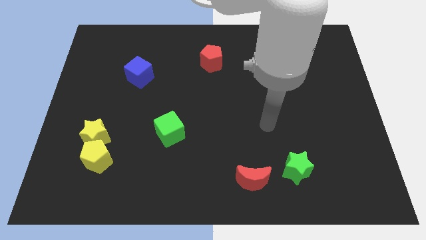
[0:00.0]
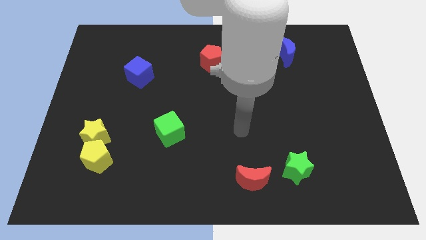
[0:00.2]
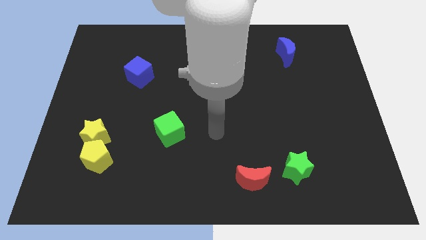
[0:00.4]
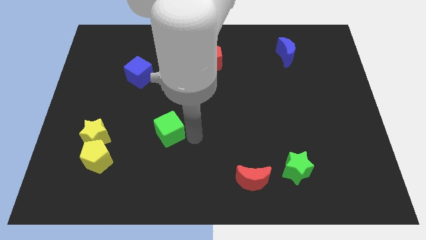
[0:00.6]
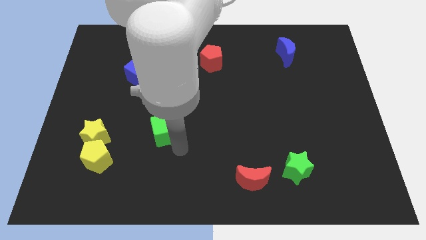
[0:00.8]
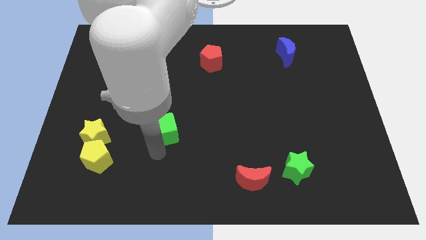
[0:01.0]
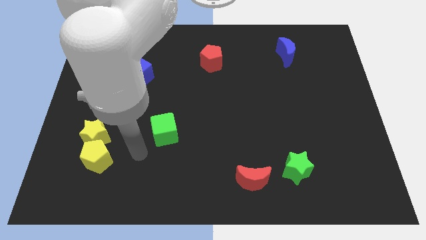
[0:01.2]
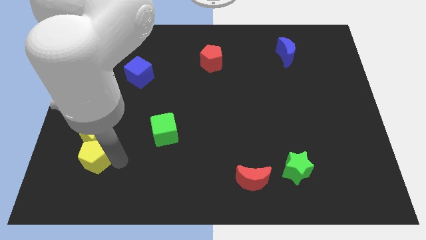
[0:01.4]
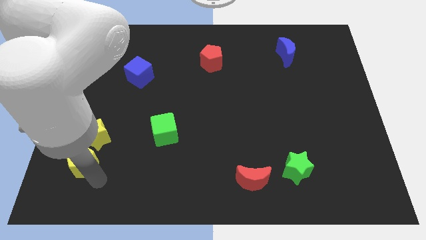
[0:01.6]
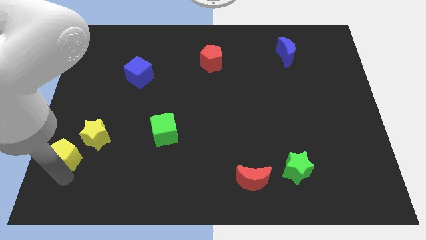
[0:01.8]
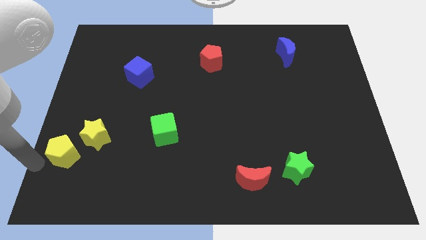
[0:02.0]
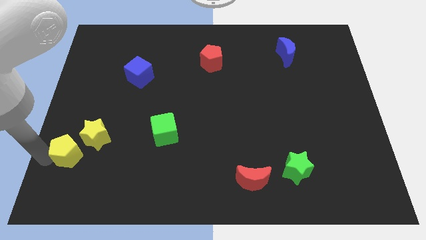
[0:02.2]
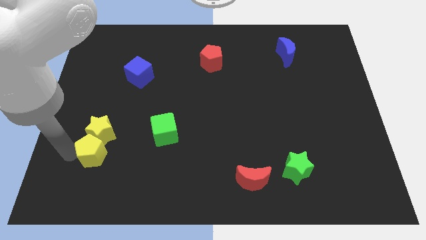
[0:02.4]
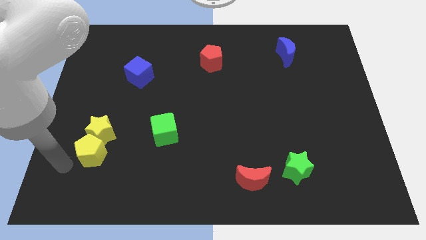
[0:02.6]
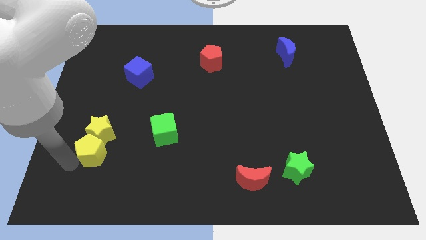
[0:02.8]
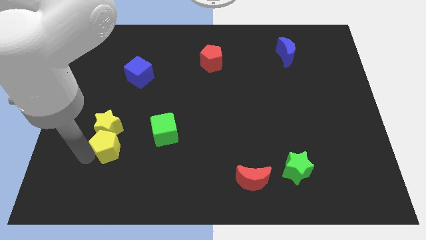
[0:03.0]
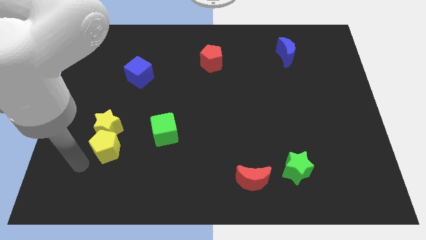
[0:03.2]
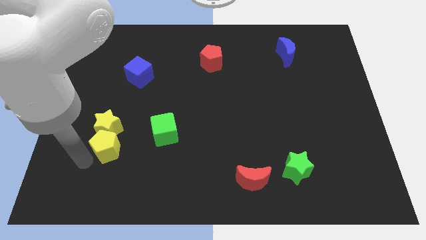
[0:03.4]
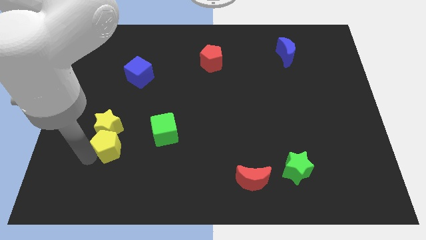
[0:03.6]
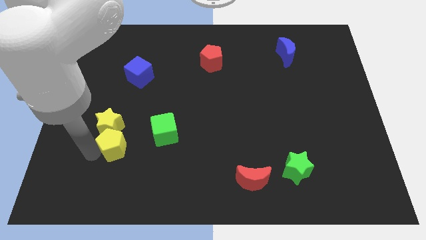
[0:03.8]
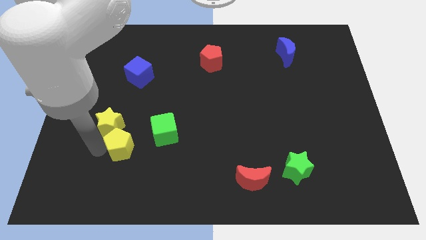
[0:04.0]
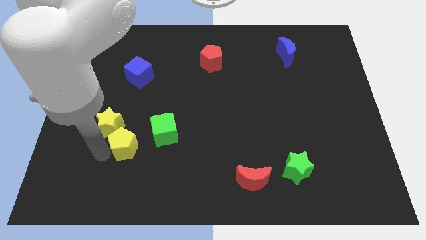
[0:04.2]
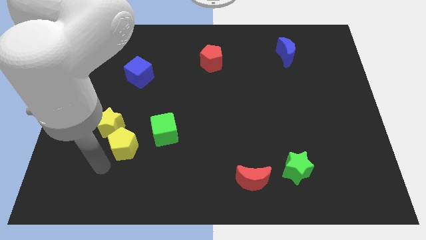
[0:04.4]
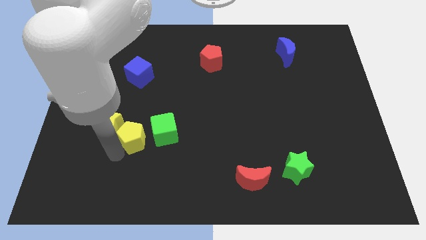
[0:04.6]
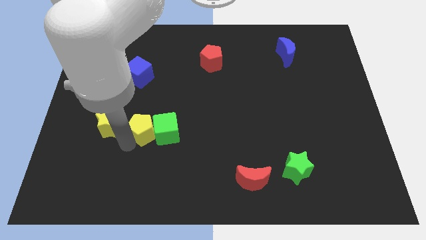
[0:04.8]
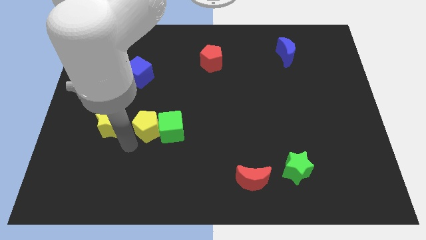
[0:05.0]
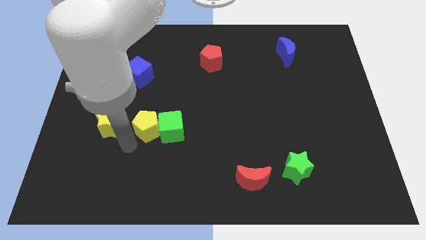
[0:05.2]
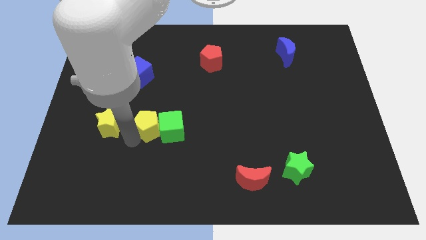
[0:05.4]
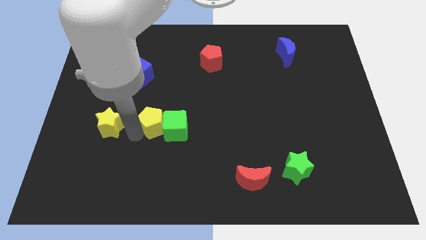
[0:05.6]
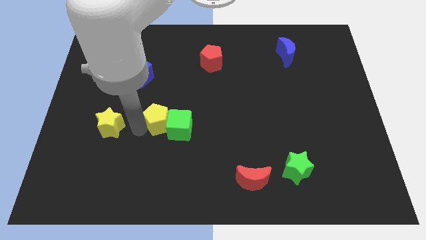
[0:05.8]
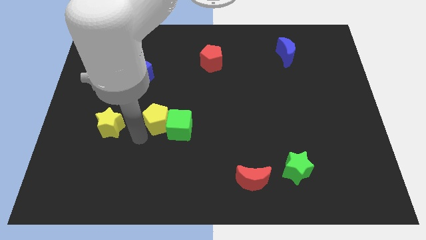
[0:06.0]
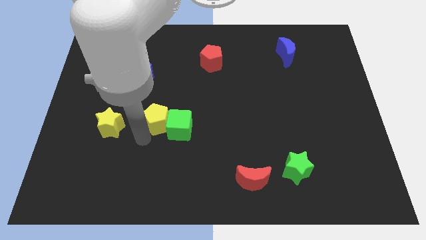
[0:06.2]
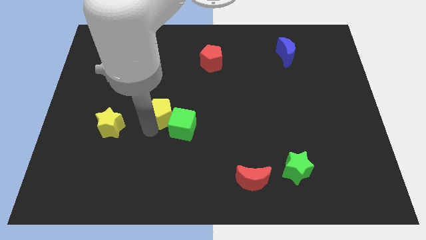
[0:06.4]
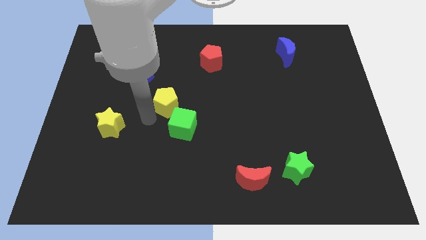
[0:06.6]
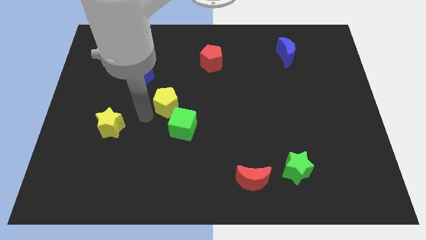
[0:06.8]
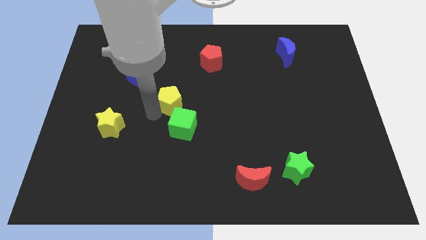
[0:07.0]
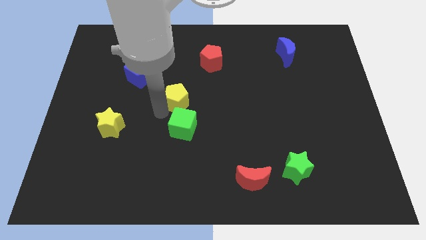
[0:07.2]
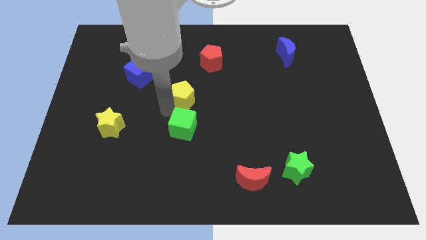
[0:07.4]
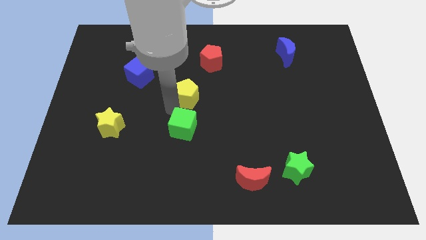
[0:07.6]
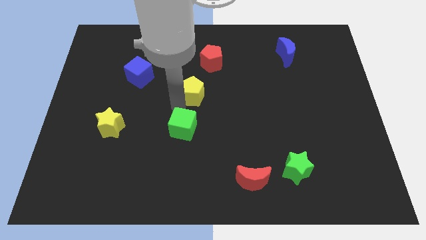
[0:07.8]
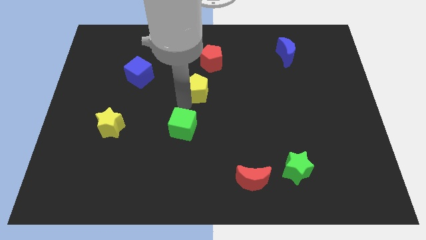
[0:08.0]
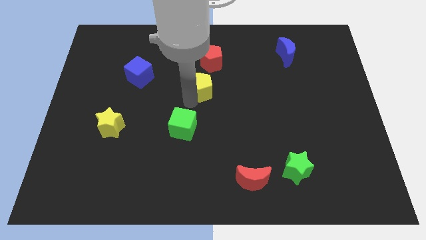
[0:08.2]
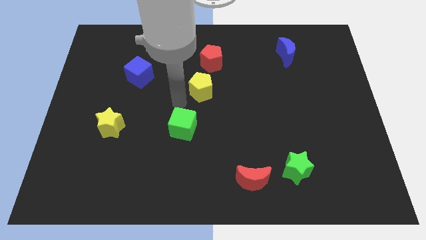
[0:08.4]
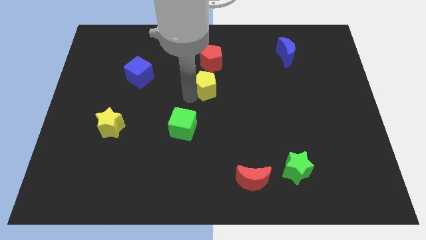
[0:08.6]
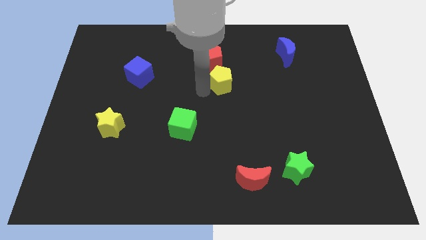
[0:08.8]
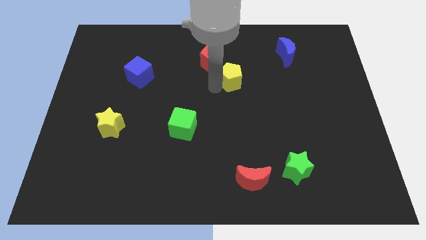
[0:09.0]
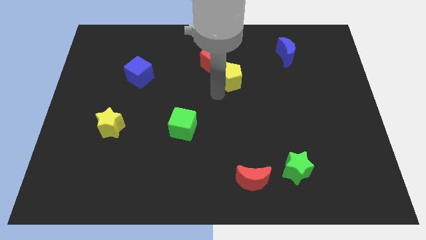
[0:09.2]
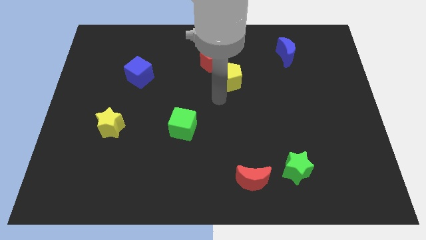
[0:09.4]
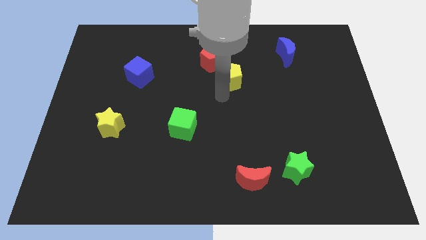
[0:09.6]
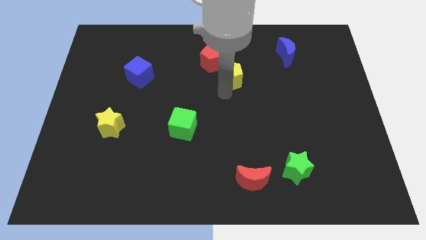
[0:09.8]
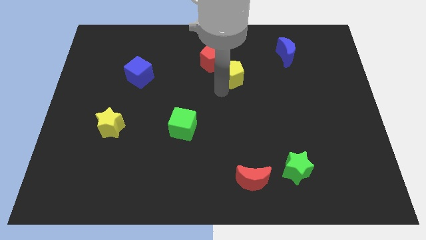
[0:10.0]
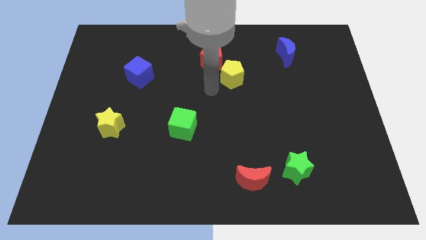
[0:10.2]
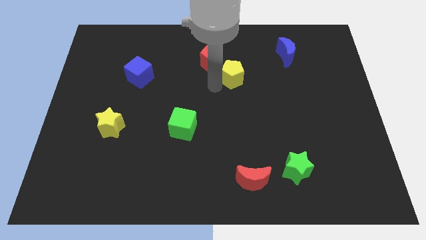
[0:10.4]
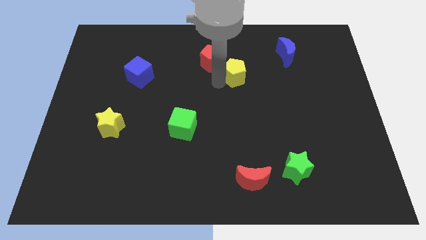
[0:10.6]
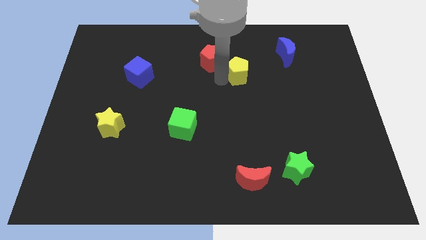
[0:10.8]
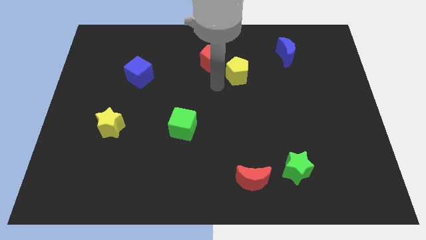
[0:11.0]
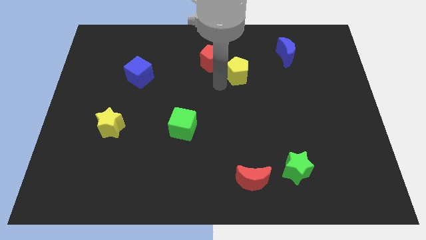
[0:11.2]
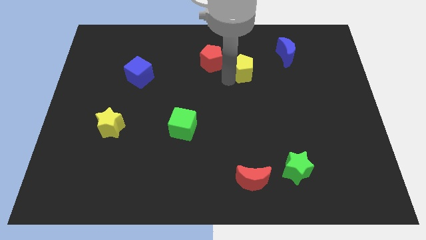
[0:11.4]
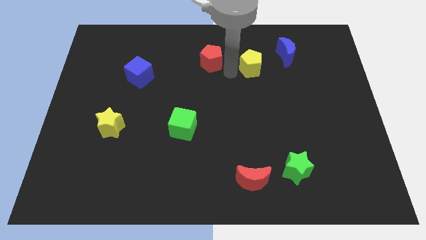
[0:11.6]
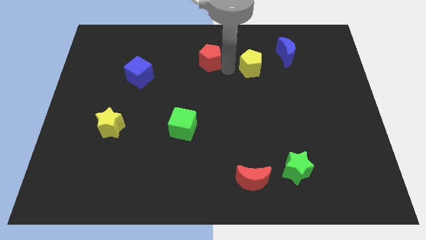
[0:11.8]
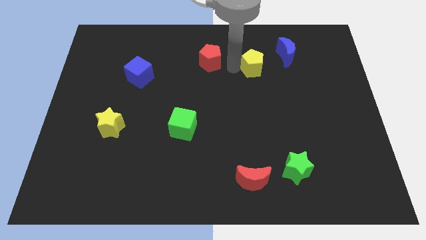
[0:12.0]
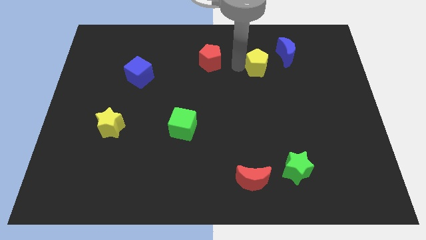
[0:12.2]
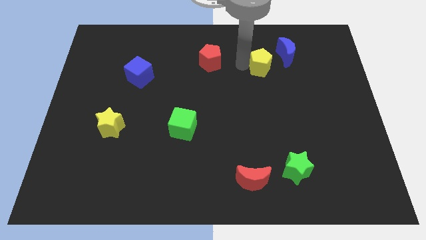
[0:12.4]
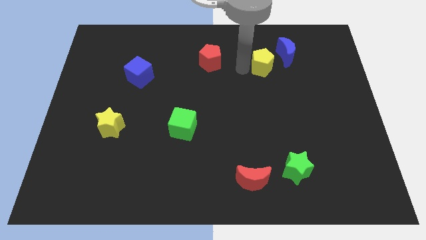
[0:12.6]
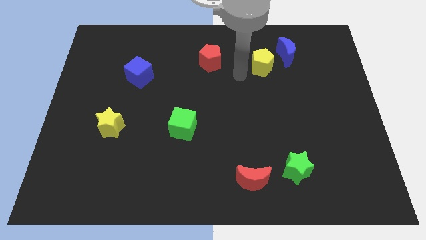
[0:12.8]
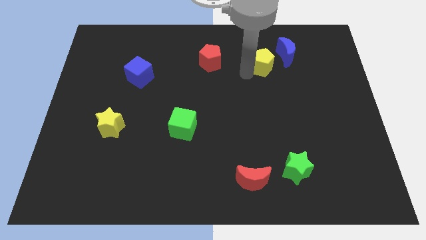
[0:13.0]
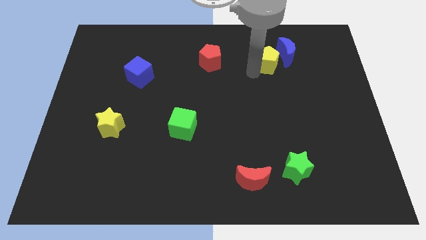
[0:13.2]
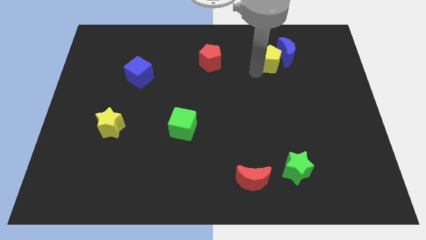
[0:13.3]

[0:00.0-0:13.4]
slide the yellow pentagon next to the blue moon

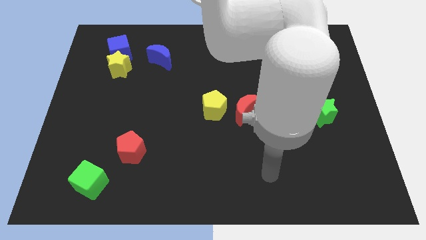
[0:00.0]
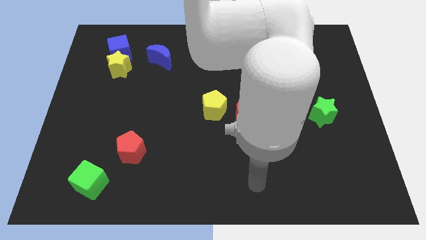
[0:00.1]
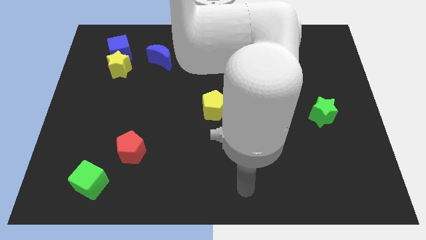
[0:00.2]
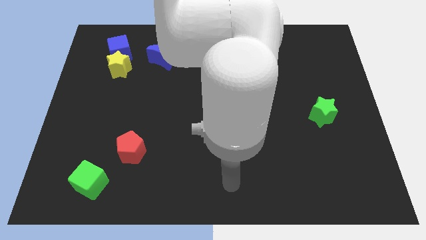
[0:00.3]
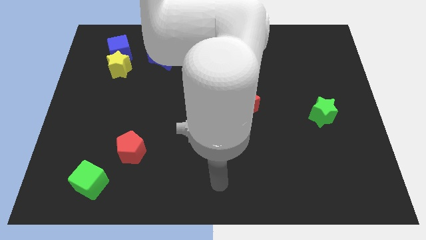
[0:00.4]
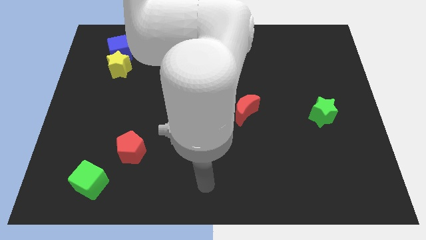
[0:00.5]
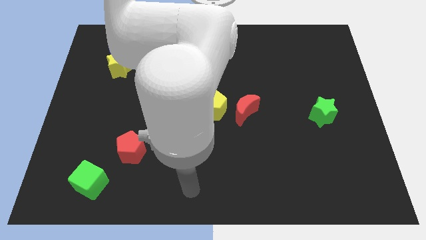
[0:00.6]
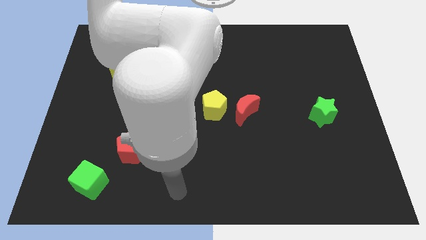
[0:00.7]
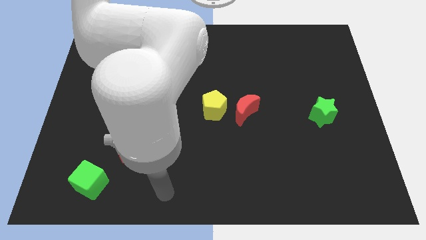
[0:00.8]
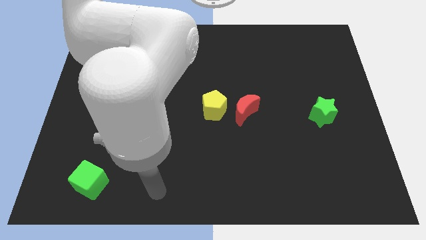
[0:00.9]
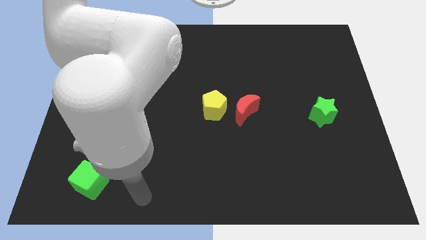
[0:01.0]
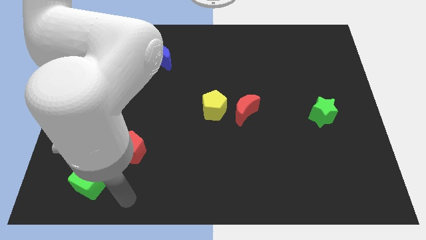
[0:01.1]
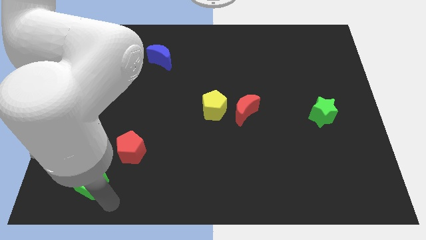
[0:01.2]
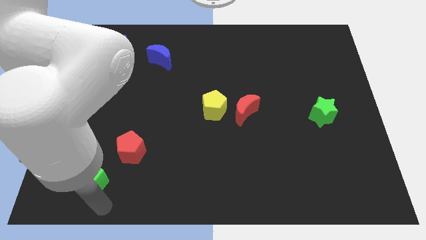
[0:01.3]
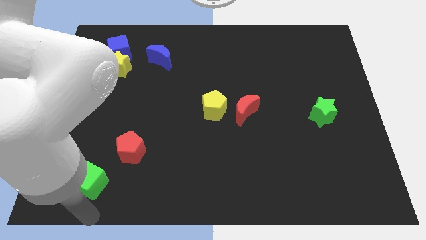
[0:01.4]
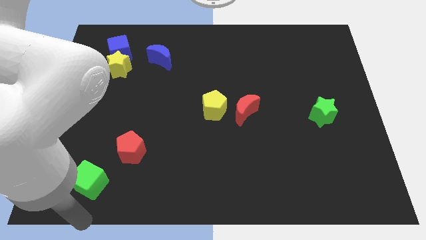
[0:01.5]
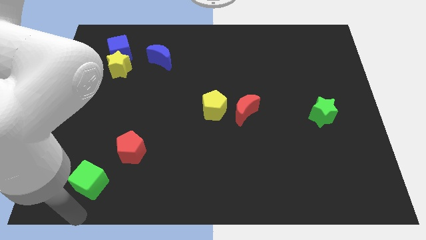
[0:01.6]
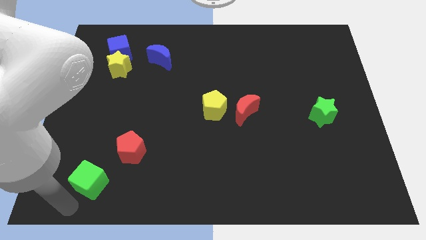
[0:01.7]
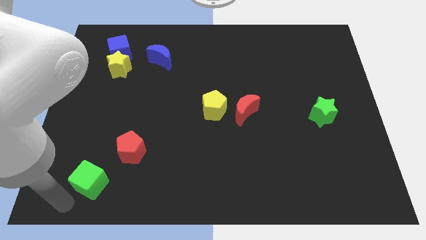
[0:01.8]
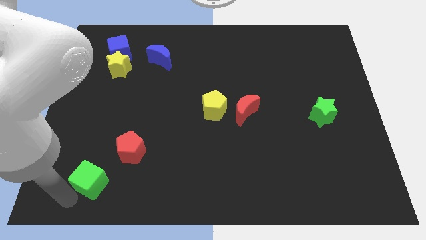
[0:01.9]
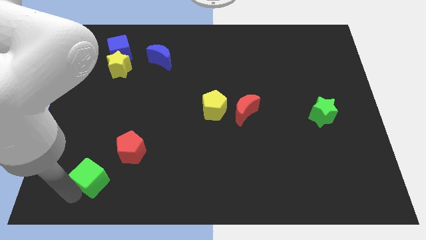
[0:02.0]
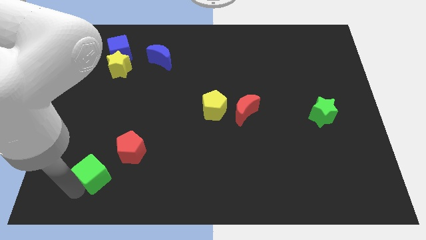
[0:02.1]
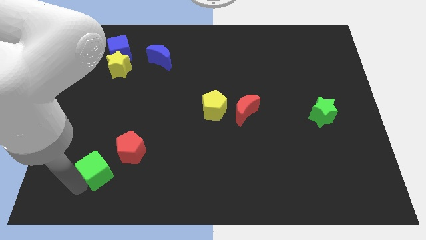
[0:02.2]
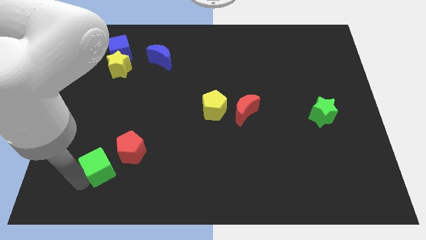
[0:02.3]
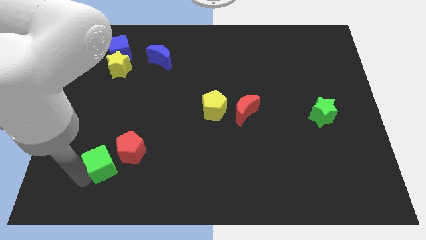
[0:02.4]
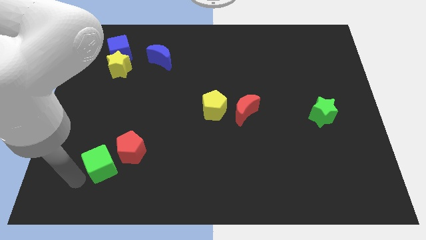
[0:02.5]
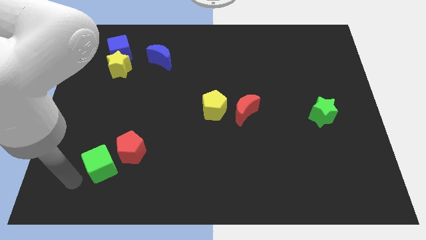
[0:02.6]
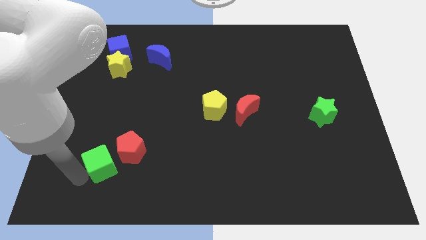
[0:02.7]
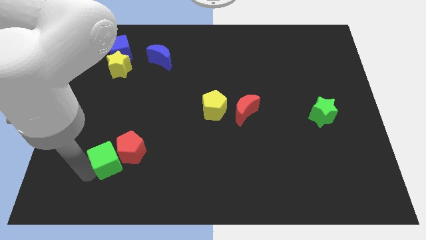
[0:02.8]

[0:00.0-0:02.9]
put the green cube to the red pentagon
